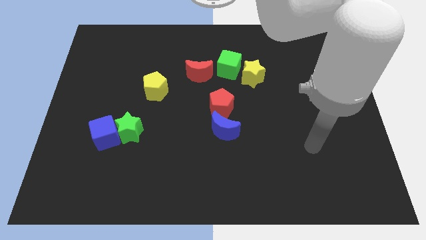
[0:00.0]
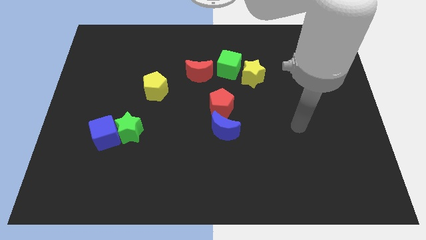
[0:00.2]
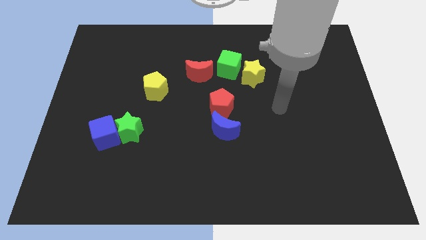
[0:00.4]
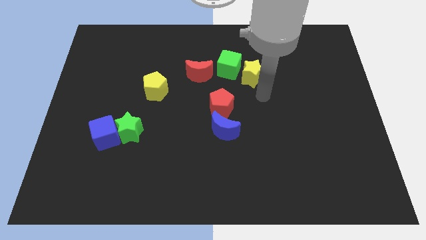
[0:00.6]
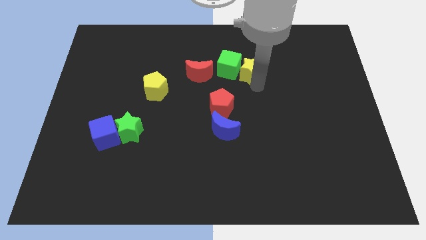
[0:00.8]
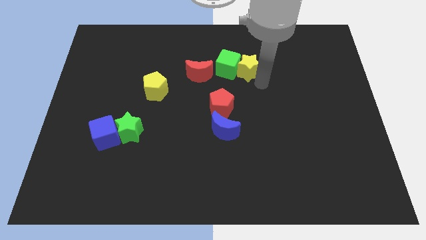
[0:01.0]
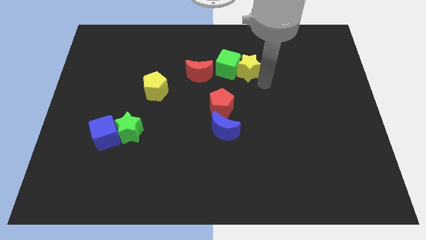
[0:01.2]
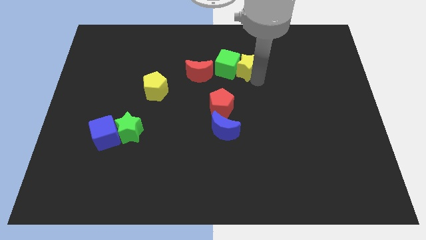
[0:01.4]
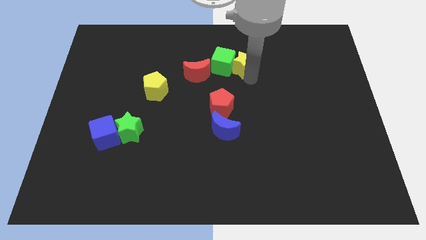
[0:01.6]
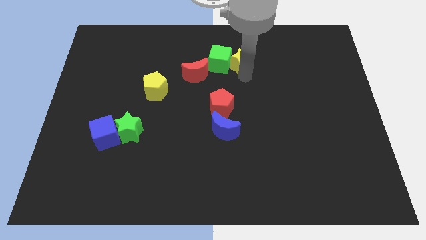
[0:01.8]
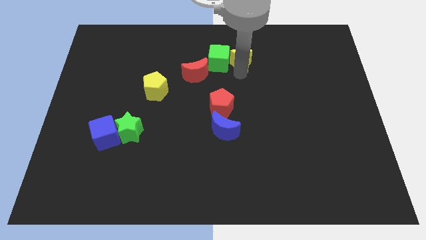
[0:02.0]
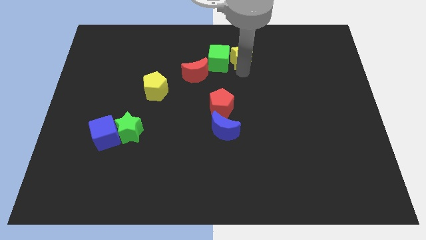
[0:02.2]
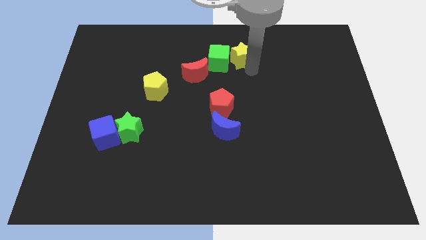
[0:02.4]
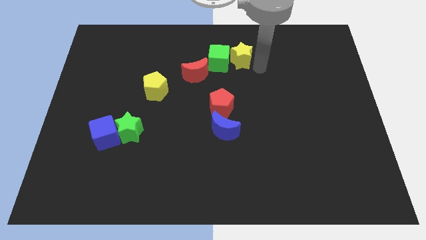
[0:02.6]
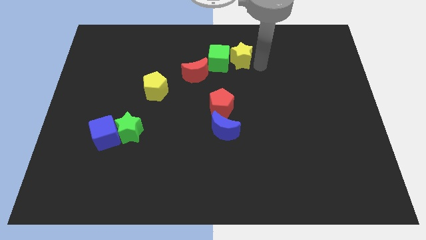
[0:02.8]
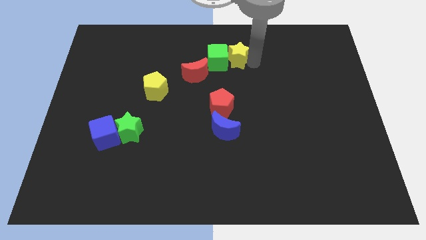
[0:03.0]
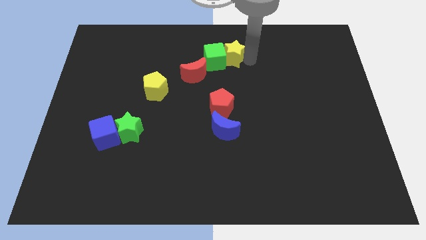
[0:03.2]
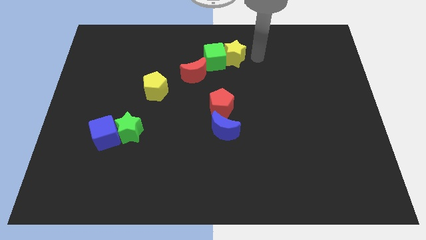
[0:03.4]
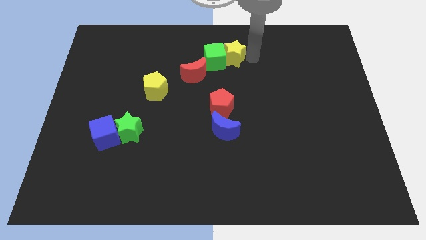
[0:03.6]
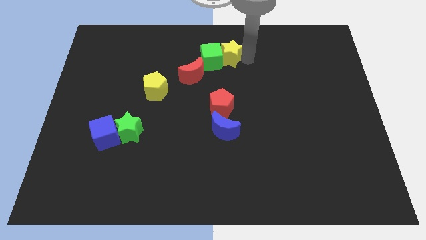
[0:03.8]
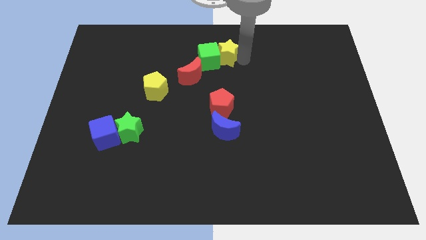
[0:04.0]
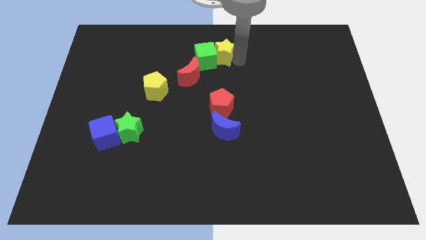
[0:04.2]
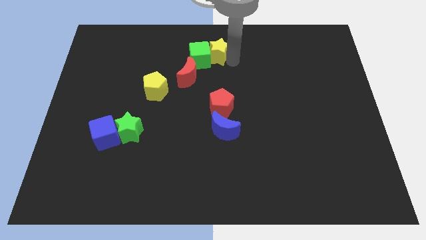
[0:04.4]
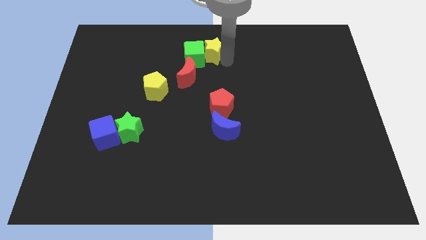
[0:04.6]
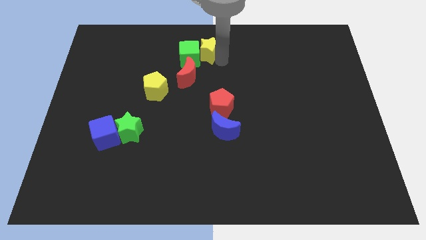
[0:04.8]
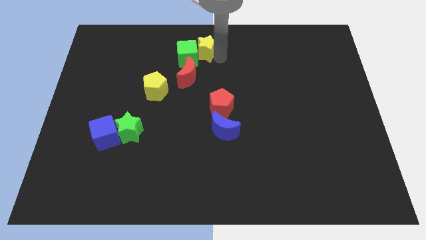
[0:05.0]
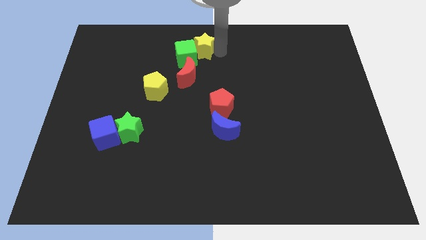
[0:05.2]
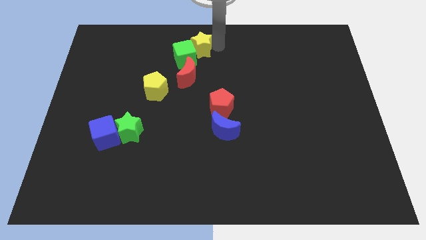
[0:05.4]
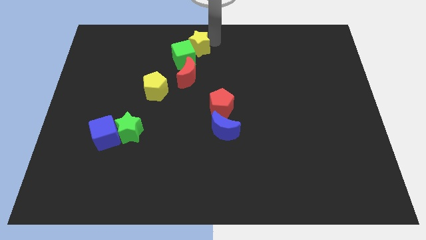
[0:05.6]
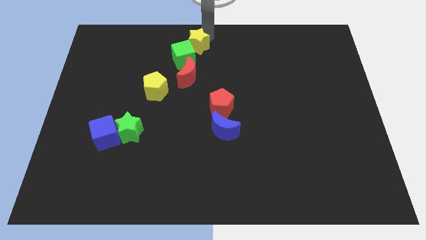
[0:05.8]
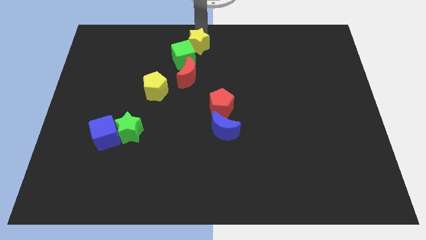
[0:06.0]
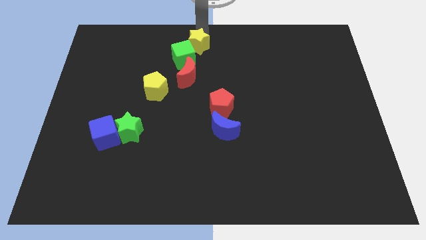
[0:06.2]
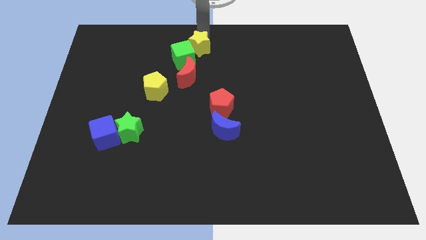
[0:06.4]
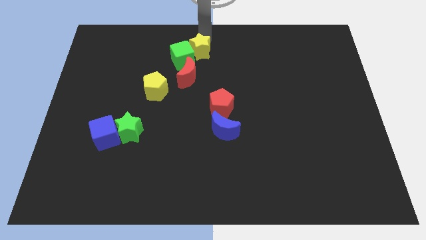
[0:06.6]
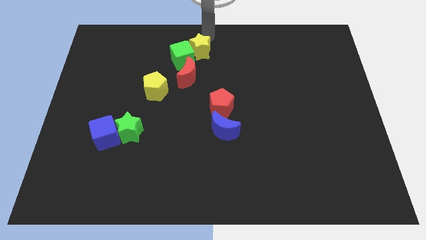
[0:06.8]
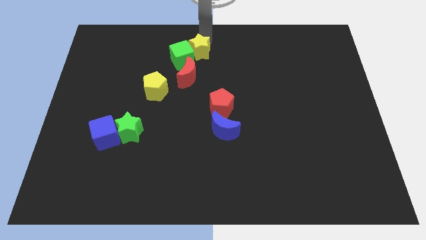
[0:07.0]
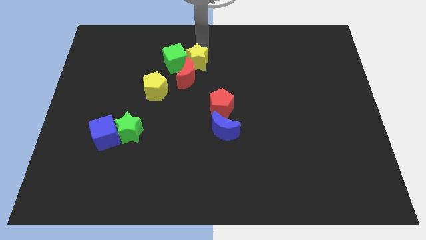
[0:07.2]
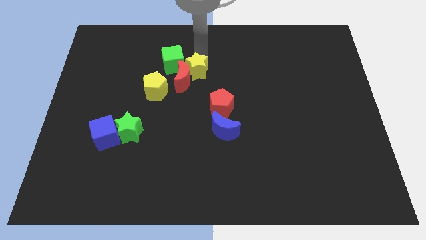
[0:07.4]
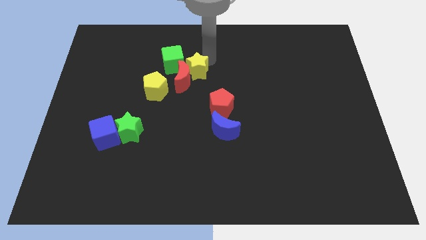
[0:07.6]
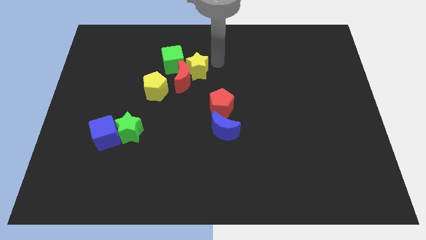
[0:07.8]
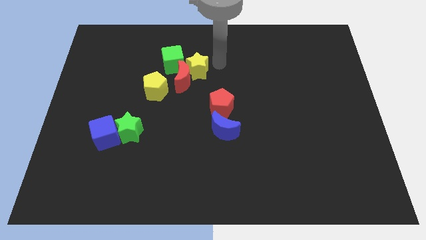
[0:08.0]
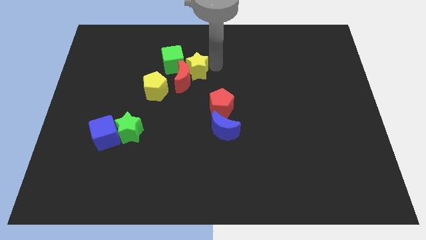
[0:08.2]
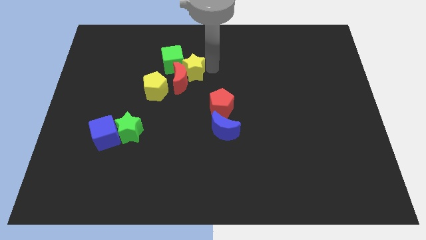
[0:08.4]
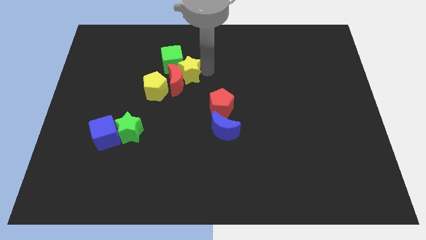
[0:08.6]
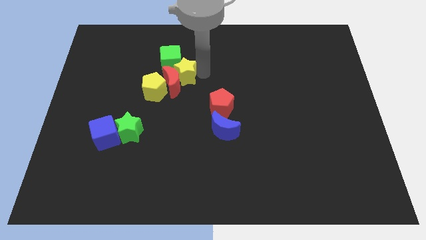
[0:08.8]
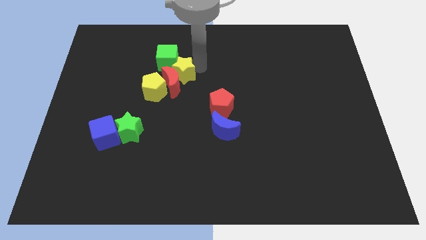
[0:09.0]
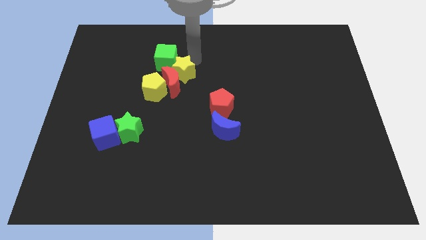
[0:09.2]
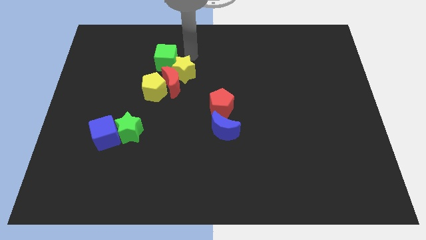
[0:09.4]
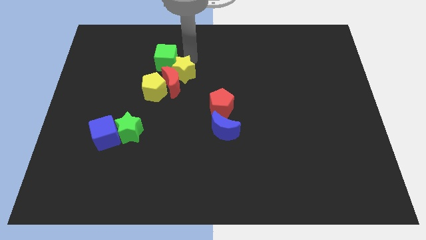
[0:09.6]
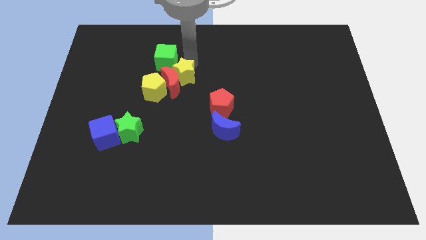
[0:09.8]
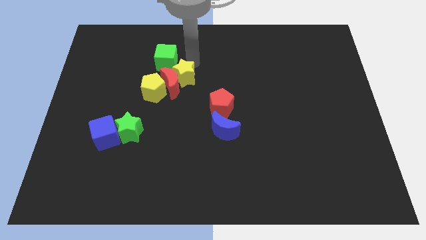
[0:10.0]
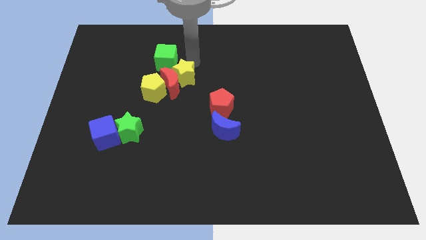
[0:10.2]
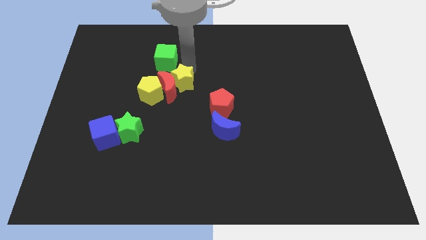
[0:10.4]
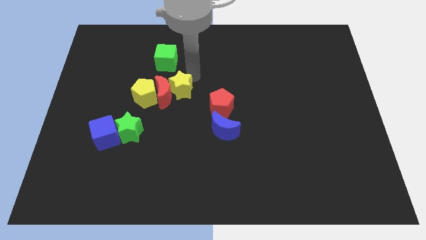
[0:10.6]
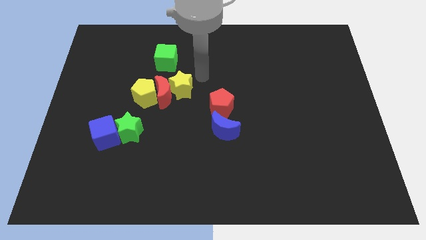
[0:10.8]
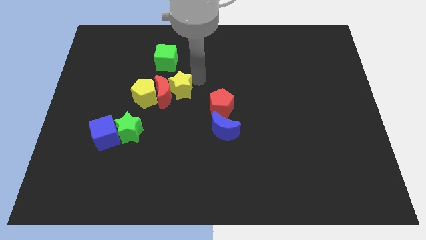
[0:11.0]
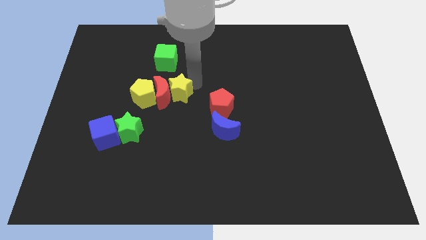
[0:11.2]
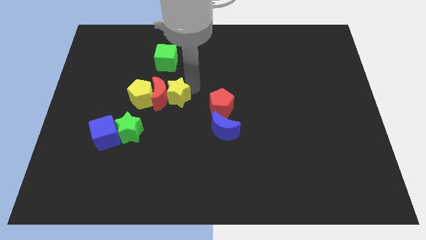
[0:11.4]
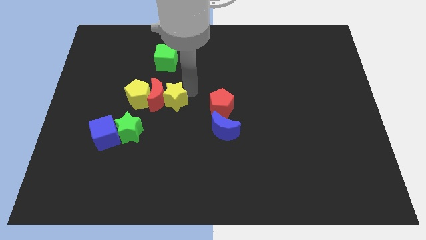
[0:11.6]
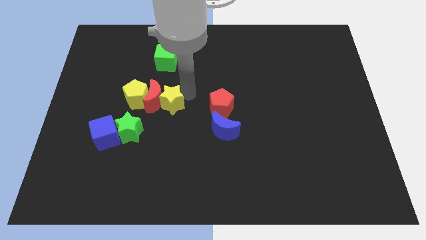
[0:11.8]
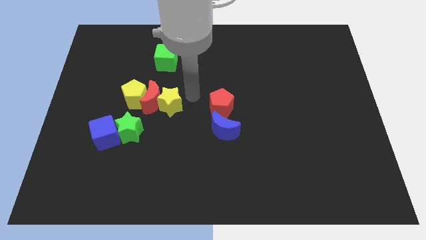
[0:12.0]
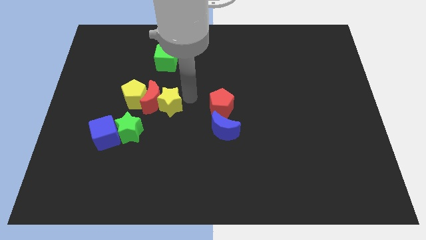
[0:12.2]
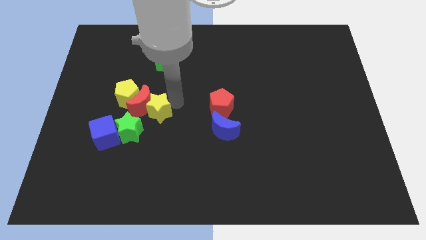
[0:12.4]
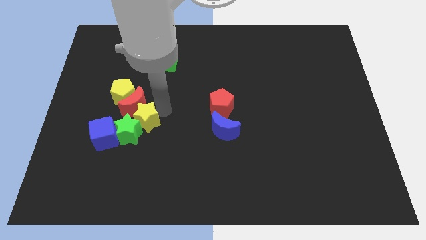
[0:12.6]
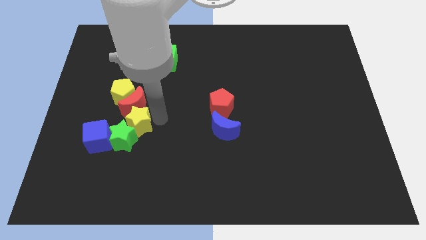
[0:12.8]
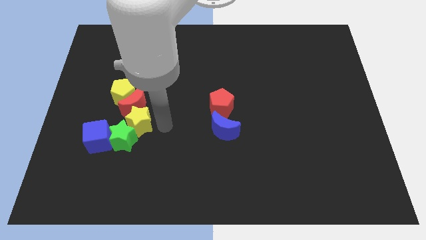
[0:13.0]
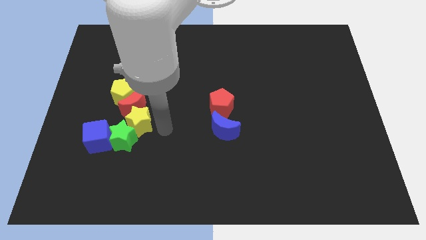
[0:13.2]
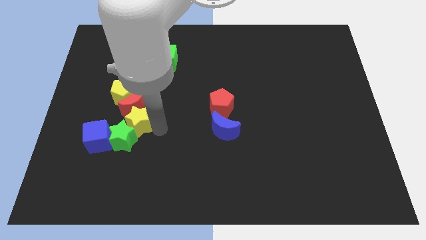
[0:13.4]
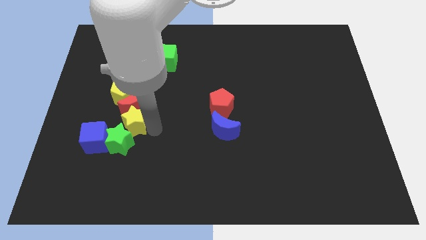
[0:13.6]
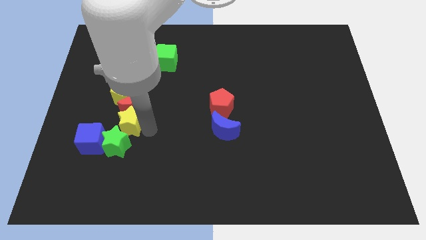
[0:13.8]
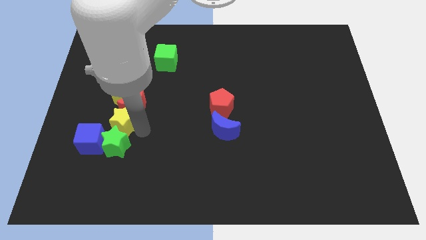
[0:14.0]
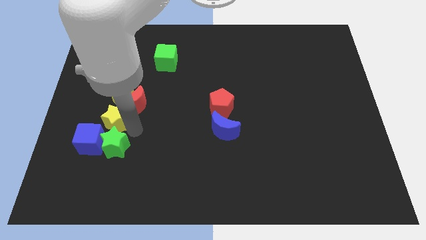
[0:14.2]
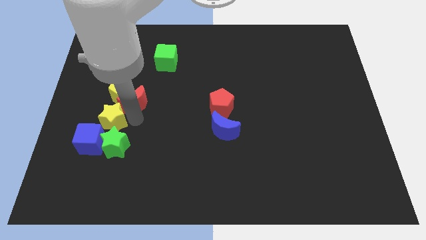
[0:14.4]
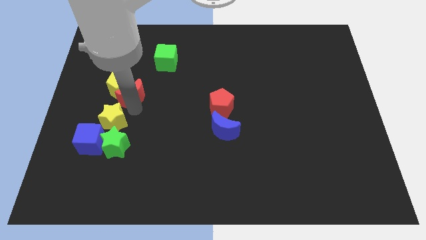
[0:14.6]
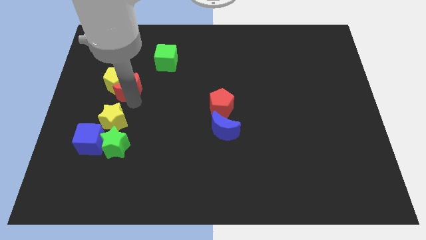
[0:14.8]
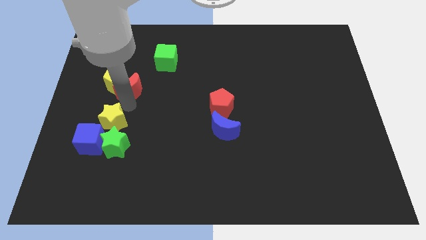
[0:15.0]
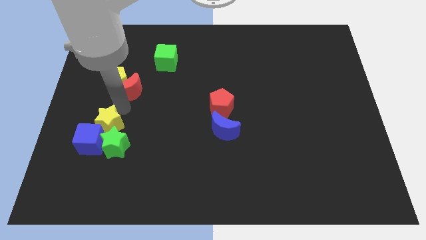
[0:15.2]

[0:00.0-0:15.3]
push the yellow star close to the blue cube
